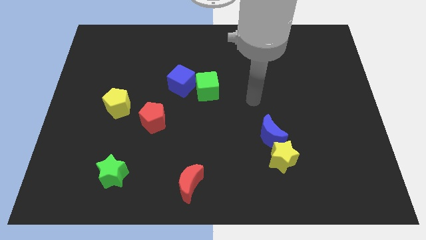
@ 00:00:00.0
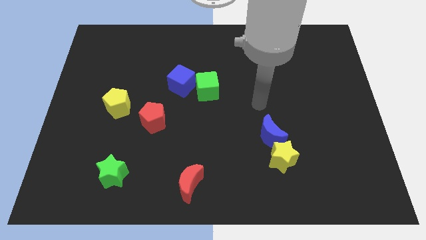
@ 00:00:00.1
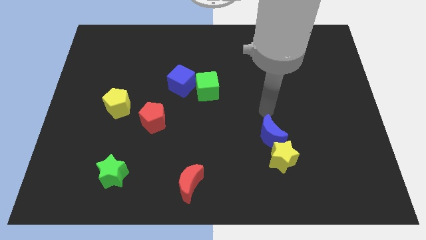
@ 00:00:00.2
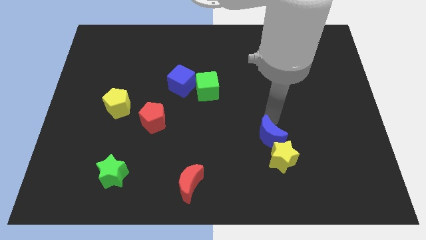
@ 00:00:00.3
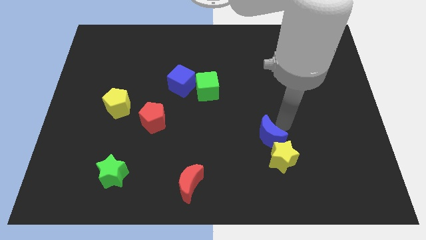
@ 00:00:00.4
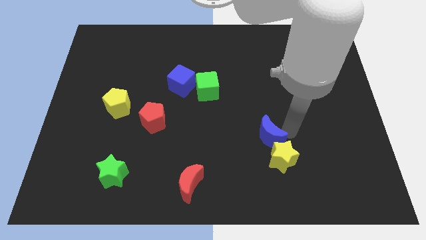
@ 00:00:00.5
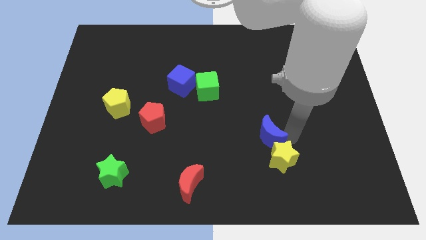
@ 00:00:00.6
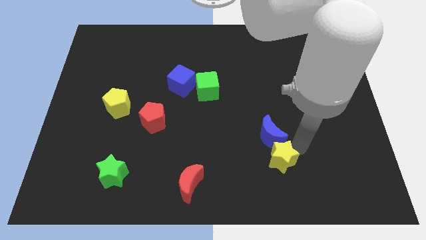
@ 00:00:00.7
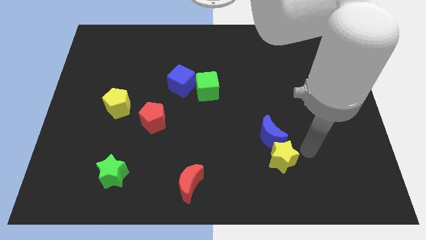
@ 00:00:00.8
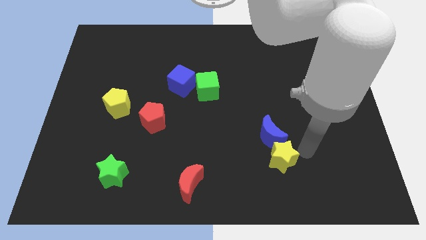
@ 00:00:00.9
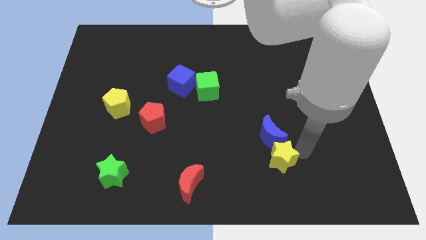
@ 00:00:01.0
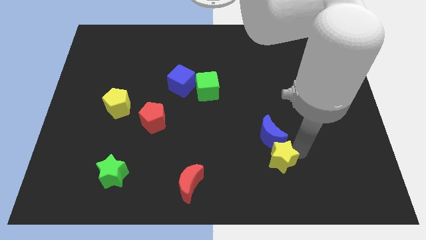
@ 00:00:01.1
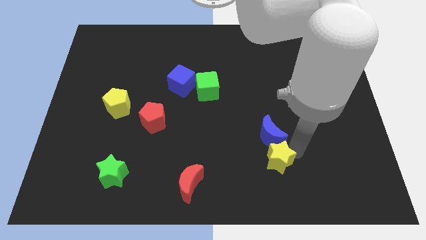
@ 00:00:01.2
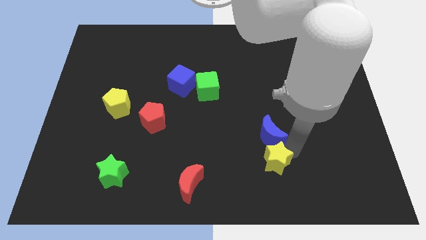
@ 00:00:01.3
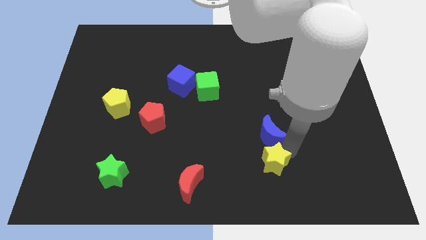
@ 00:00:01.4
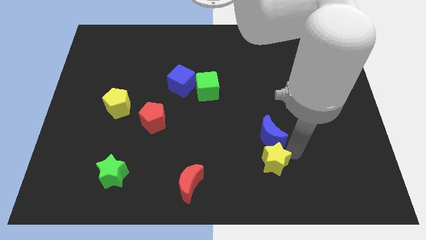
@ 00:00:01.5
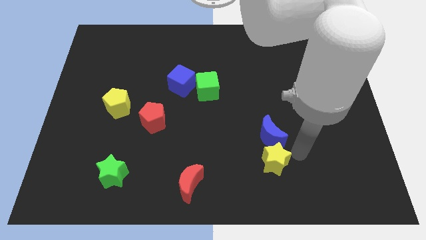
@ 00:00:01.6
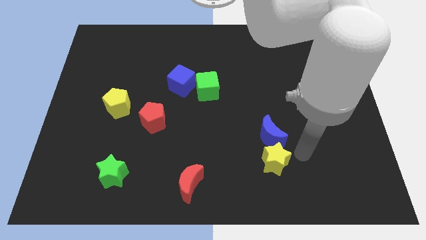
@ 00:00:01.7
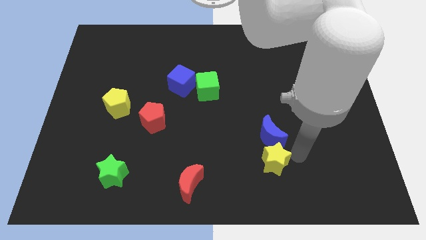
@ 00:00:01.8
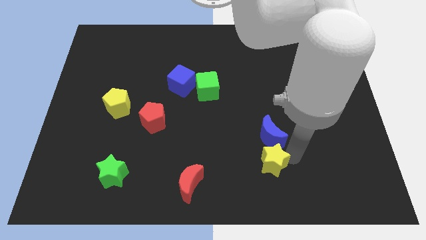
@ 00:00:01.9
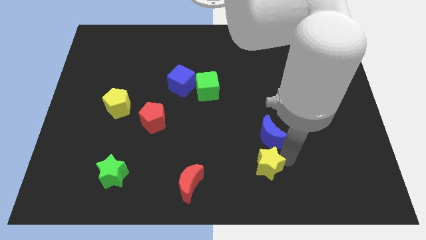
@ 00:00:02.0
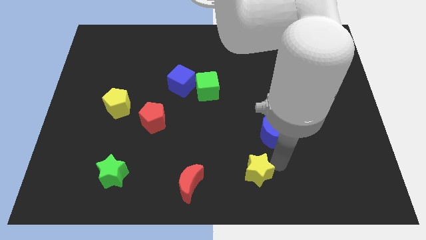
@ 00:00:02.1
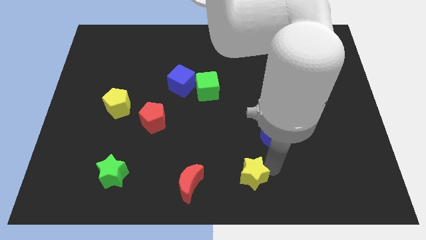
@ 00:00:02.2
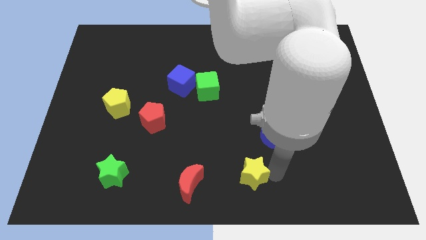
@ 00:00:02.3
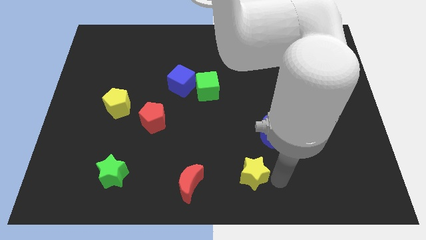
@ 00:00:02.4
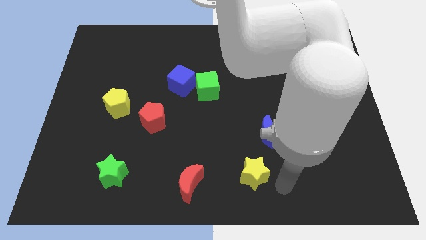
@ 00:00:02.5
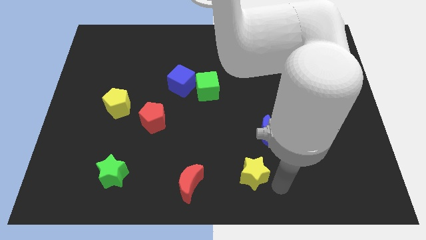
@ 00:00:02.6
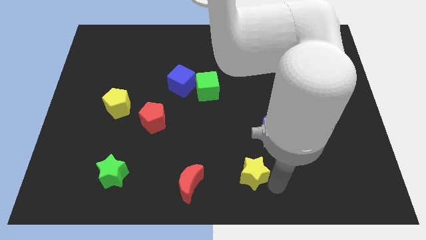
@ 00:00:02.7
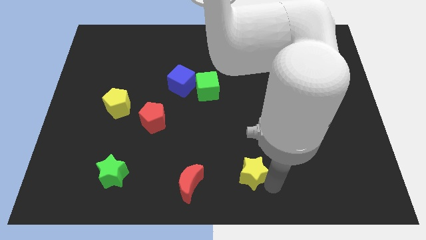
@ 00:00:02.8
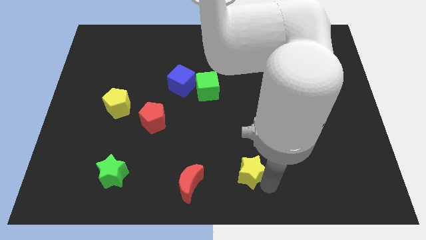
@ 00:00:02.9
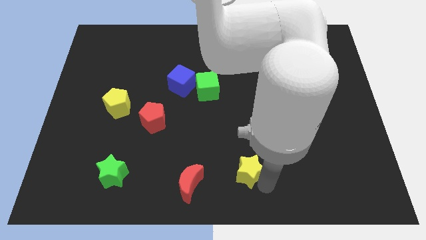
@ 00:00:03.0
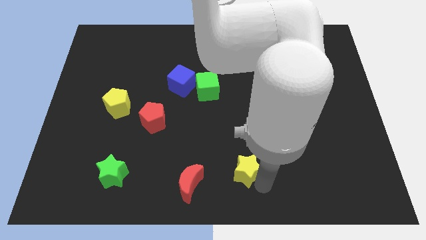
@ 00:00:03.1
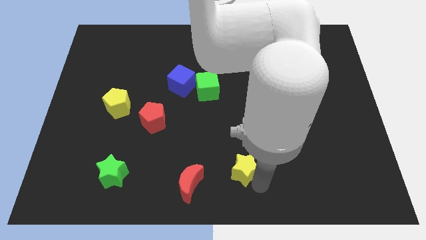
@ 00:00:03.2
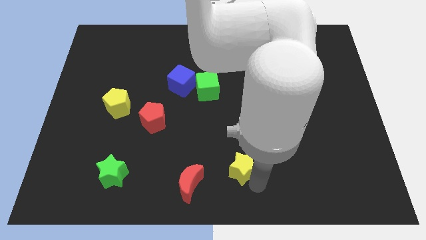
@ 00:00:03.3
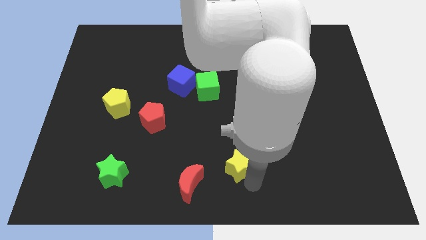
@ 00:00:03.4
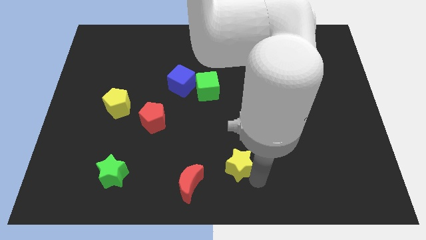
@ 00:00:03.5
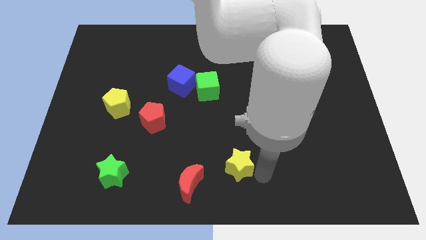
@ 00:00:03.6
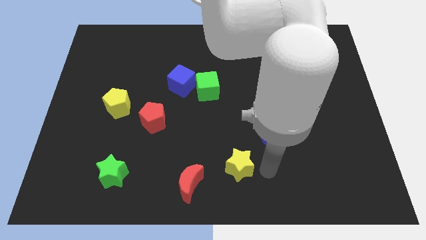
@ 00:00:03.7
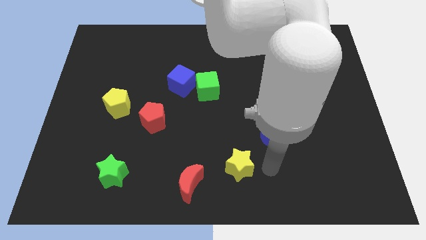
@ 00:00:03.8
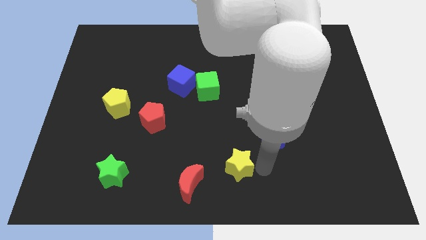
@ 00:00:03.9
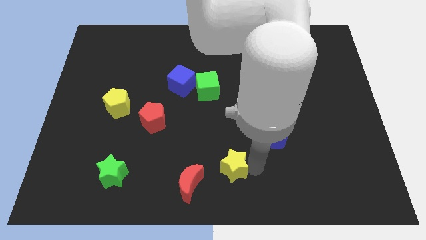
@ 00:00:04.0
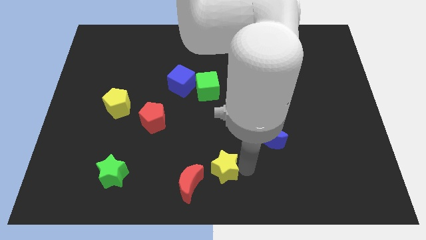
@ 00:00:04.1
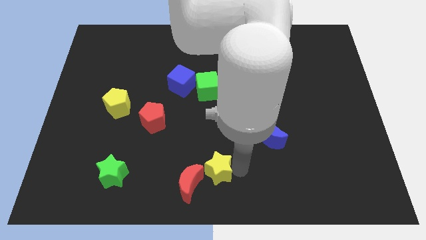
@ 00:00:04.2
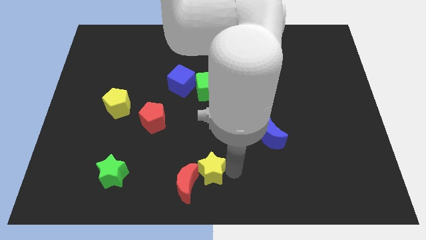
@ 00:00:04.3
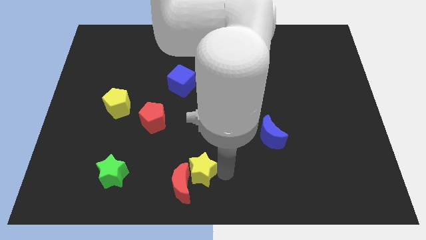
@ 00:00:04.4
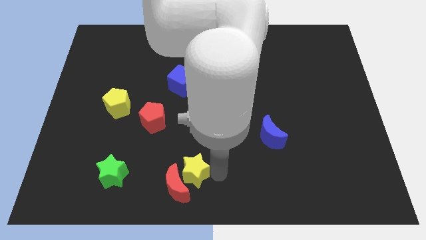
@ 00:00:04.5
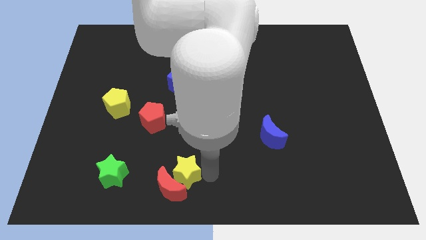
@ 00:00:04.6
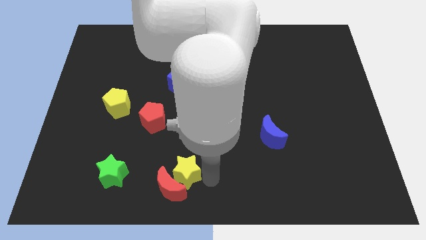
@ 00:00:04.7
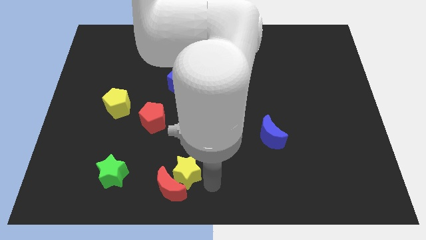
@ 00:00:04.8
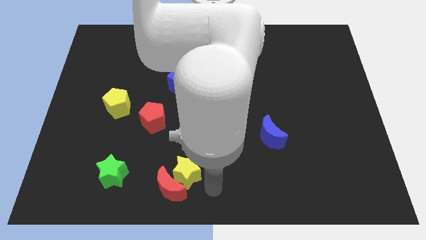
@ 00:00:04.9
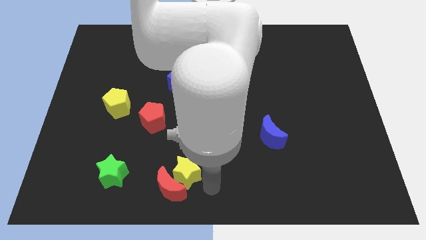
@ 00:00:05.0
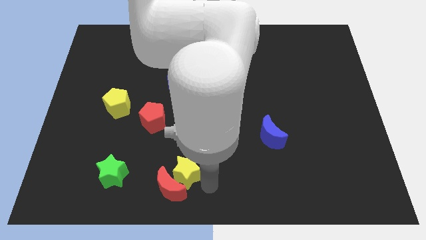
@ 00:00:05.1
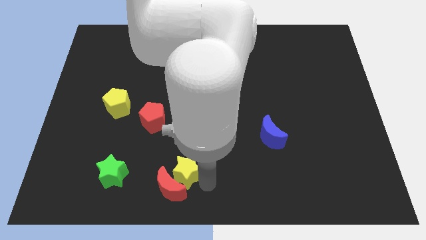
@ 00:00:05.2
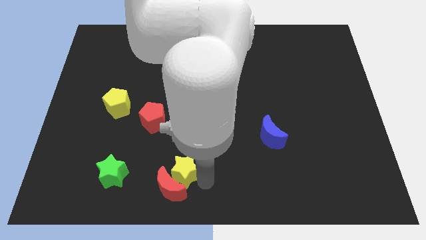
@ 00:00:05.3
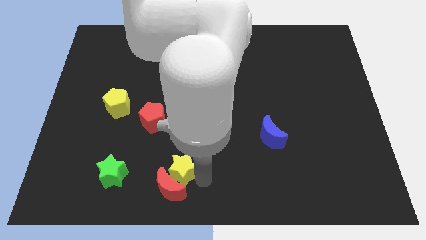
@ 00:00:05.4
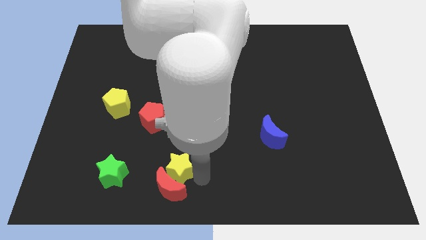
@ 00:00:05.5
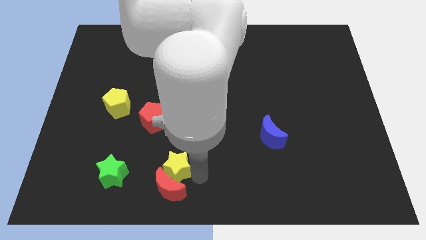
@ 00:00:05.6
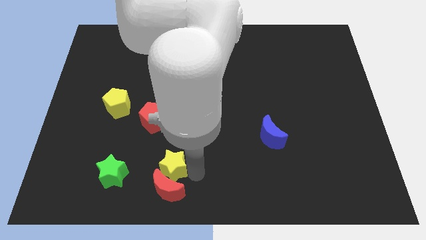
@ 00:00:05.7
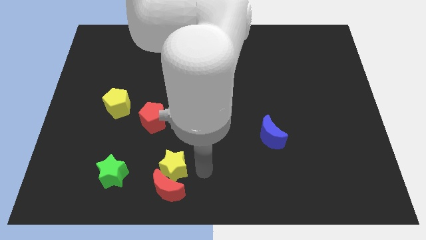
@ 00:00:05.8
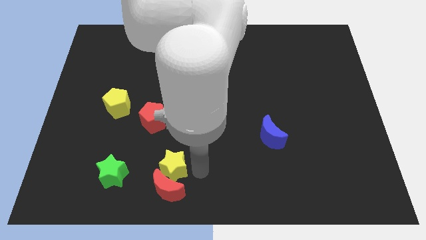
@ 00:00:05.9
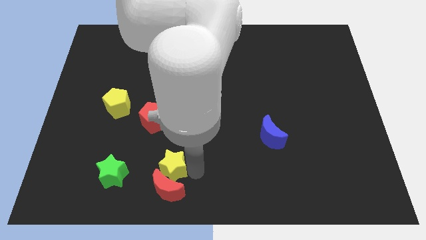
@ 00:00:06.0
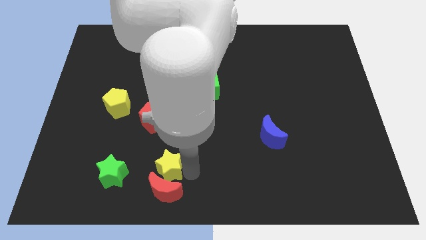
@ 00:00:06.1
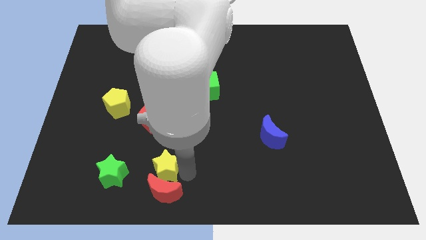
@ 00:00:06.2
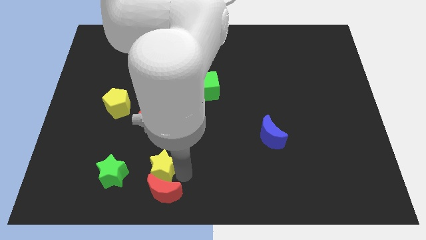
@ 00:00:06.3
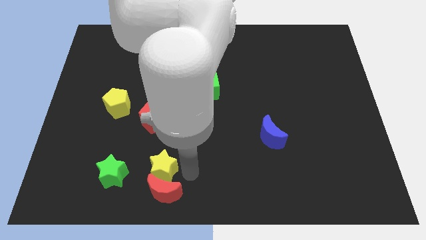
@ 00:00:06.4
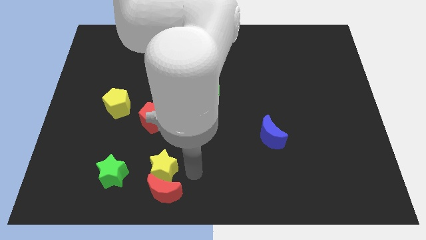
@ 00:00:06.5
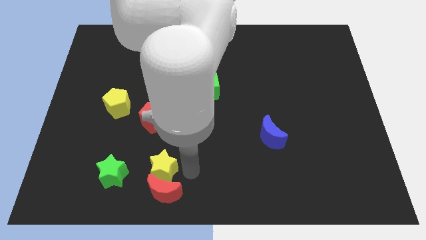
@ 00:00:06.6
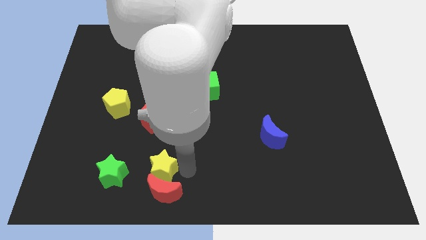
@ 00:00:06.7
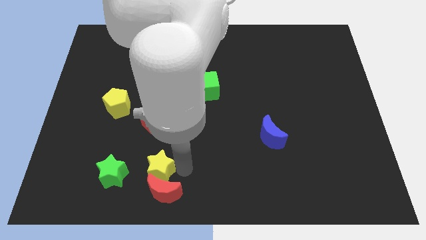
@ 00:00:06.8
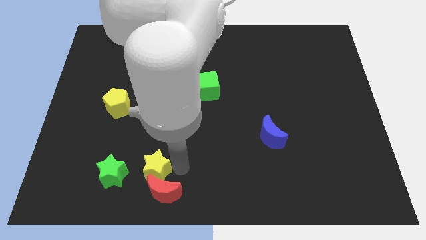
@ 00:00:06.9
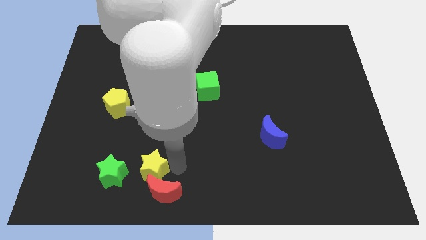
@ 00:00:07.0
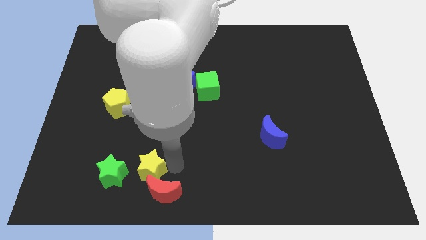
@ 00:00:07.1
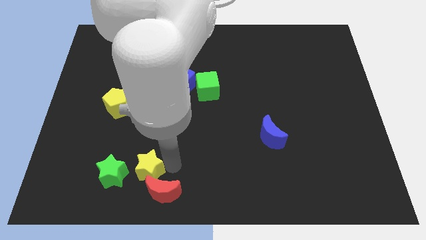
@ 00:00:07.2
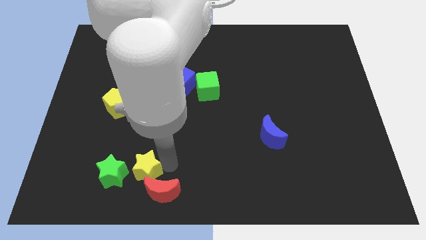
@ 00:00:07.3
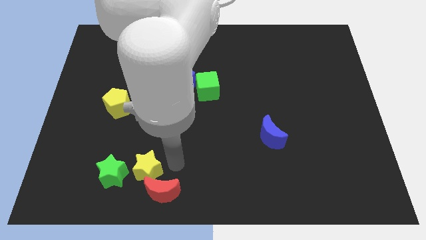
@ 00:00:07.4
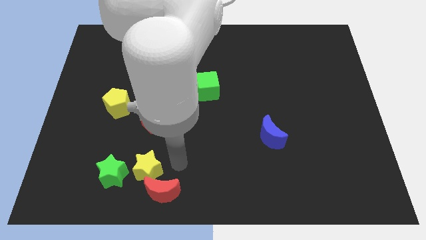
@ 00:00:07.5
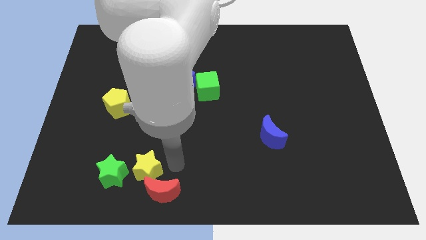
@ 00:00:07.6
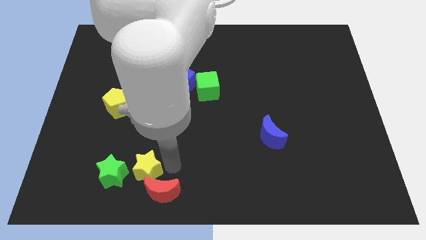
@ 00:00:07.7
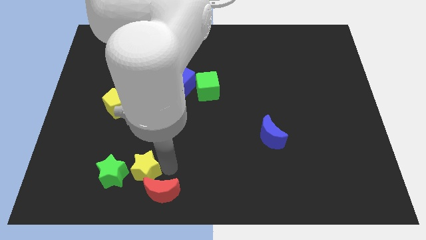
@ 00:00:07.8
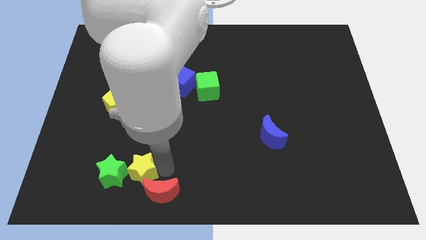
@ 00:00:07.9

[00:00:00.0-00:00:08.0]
put the yellow star towards the green star
